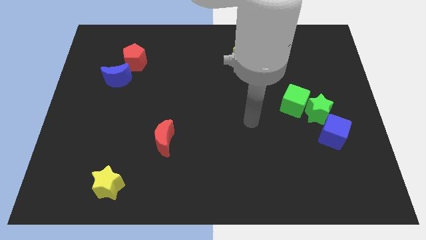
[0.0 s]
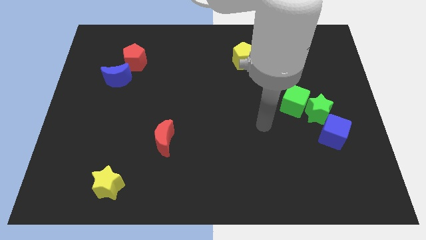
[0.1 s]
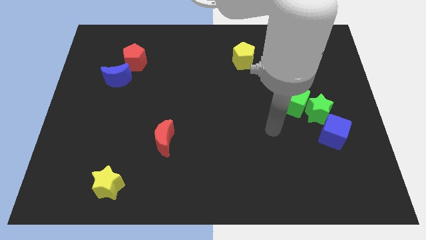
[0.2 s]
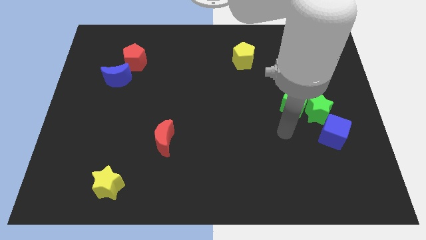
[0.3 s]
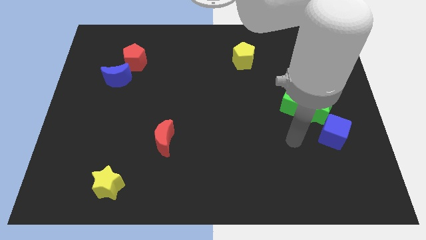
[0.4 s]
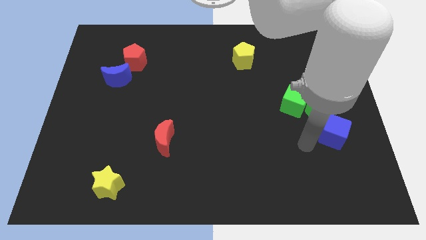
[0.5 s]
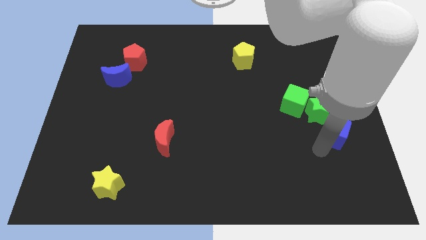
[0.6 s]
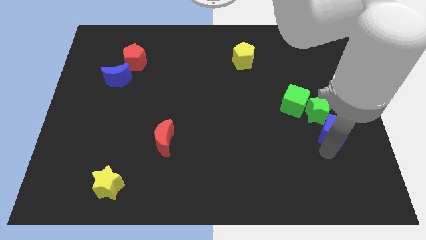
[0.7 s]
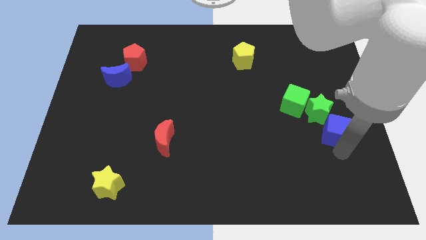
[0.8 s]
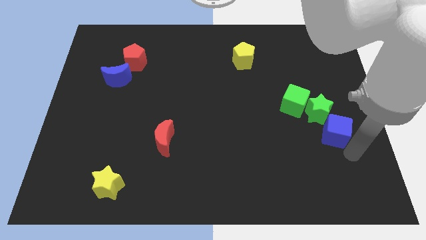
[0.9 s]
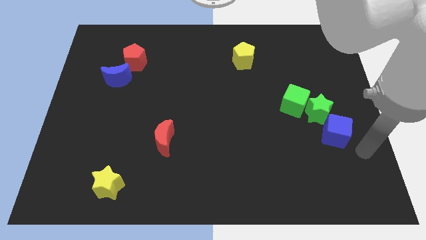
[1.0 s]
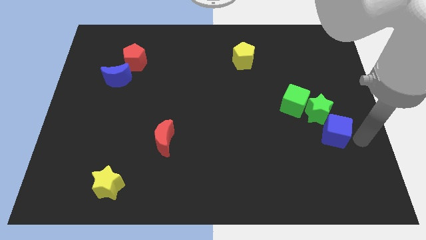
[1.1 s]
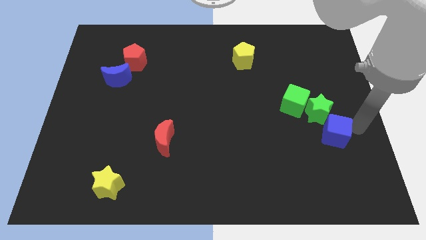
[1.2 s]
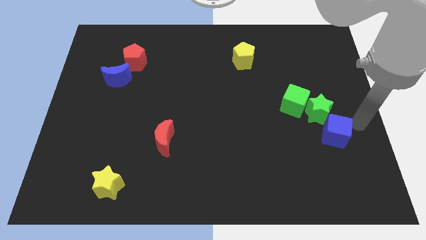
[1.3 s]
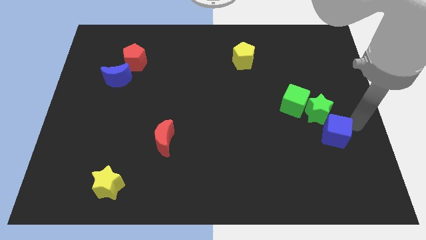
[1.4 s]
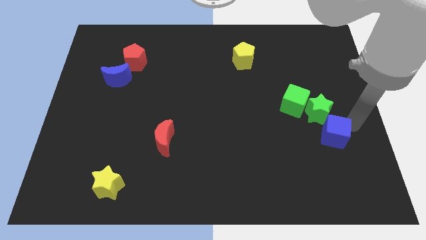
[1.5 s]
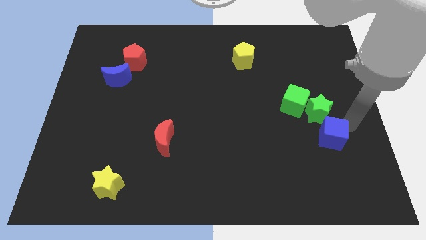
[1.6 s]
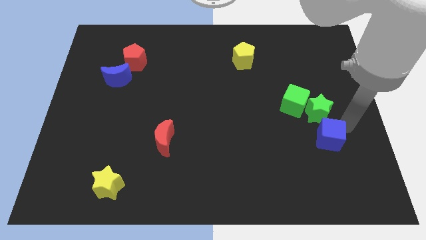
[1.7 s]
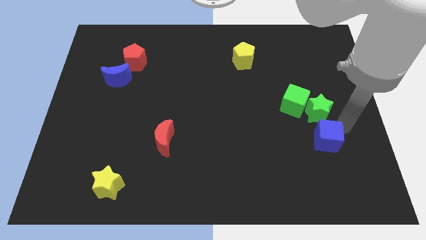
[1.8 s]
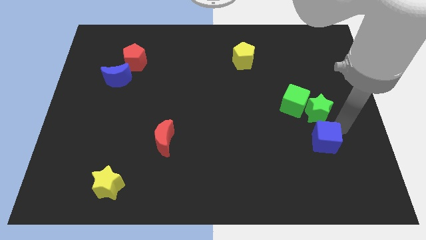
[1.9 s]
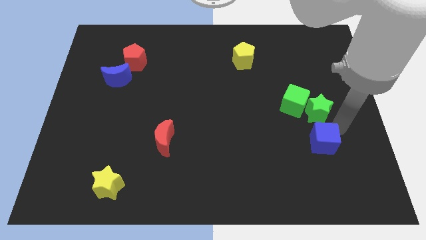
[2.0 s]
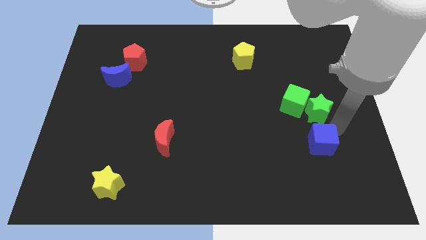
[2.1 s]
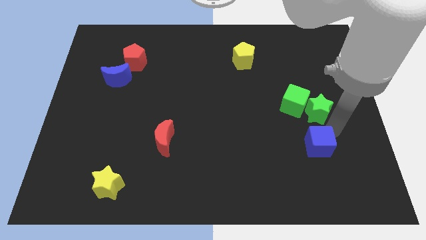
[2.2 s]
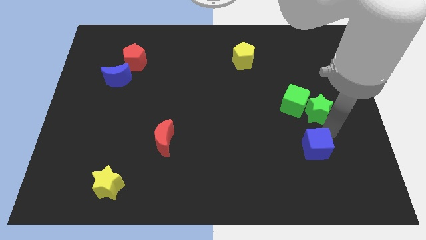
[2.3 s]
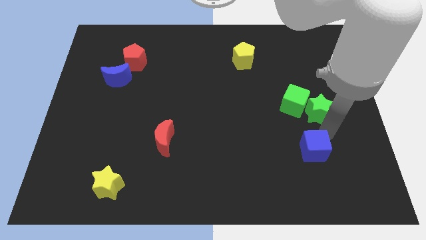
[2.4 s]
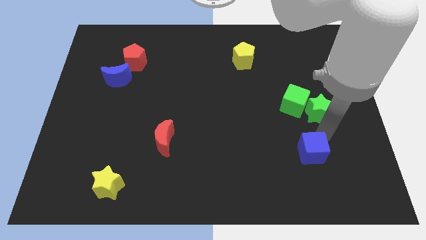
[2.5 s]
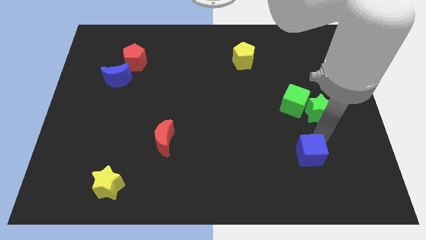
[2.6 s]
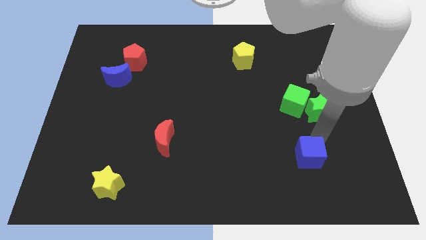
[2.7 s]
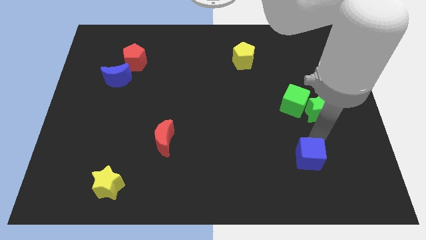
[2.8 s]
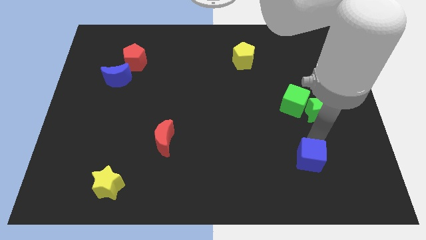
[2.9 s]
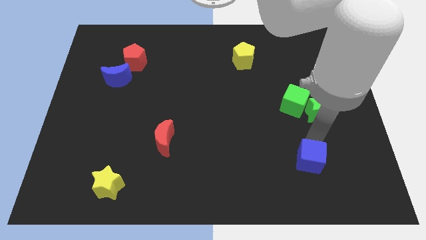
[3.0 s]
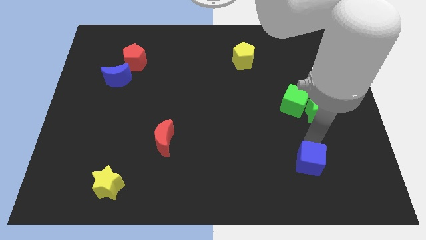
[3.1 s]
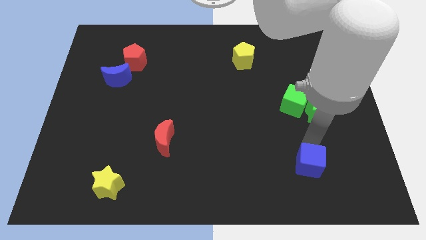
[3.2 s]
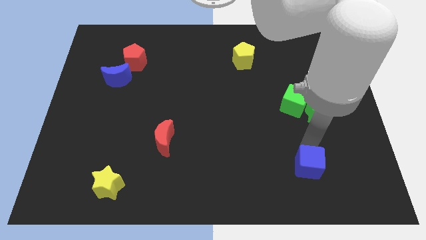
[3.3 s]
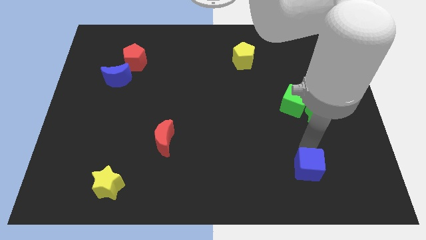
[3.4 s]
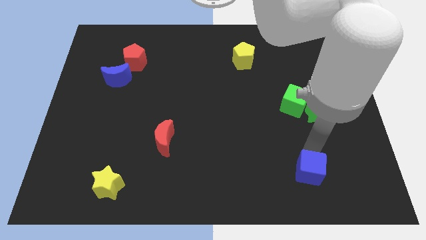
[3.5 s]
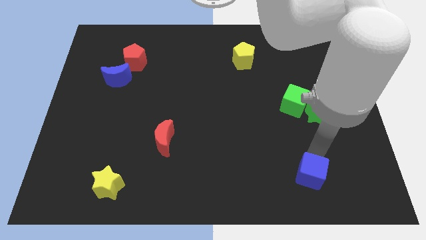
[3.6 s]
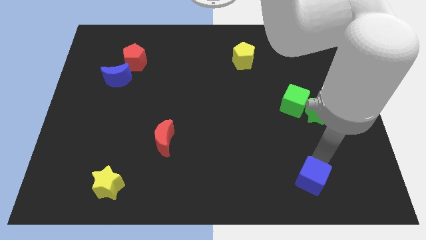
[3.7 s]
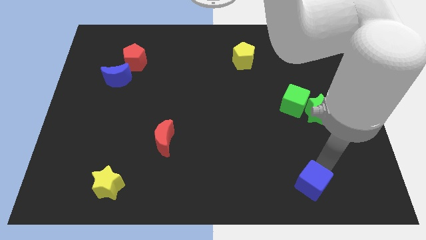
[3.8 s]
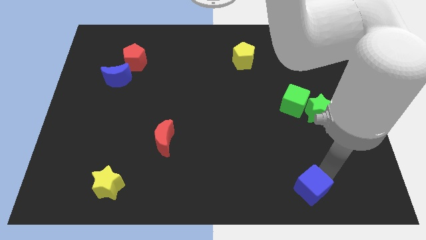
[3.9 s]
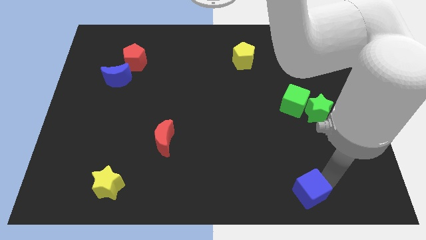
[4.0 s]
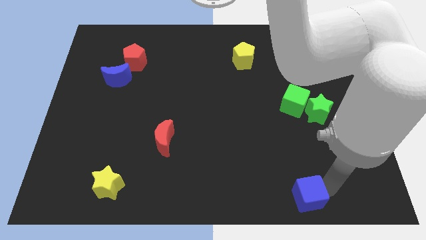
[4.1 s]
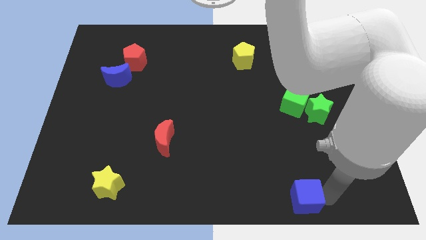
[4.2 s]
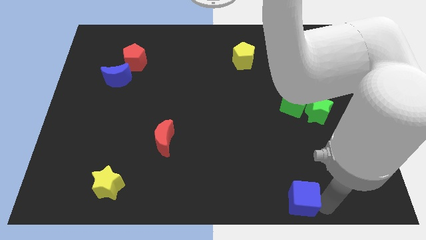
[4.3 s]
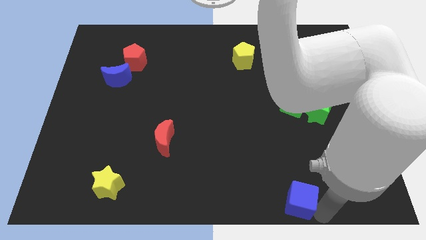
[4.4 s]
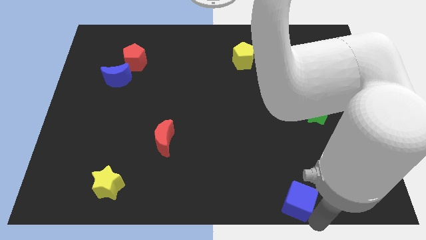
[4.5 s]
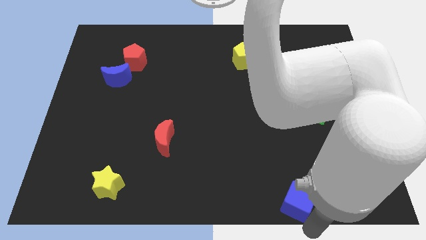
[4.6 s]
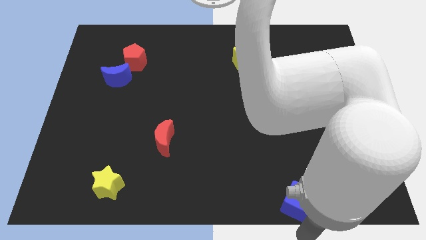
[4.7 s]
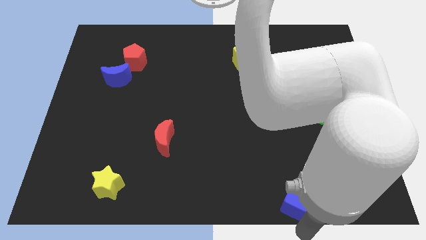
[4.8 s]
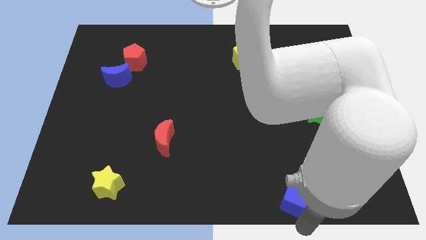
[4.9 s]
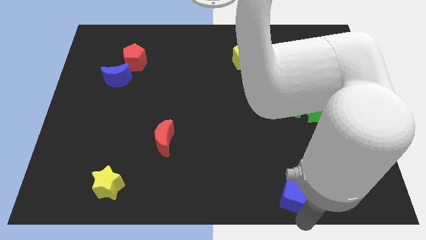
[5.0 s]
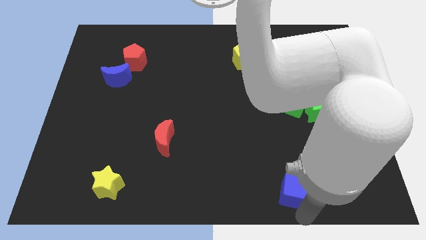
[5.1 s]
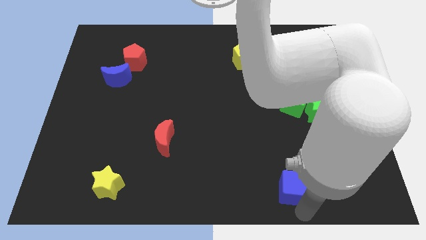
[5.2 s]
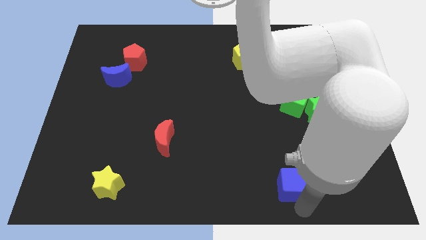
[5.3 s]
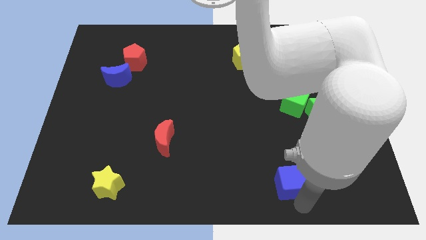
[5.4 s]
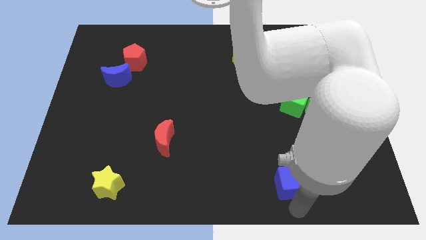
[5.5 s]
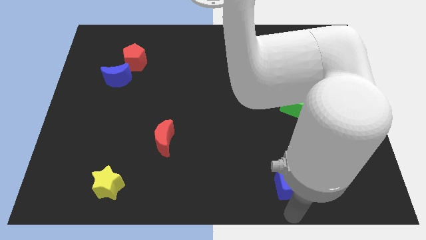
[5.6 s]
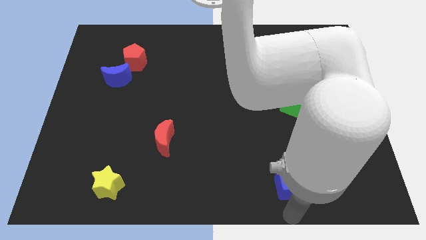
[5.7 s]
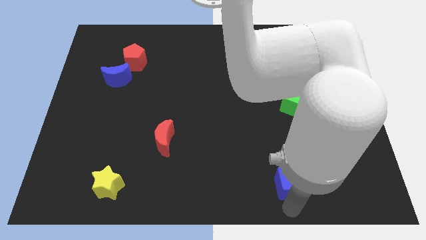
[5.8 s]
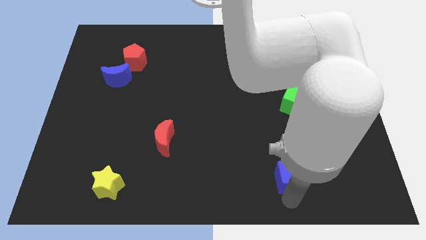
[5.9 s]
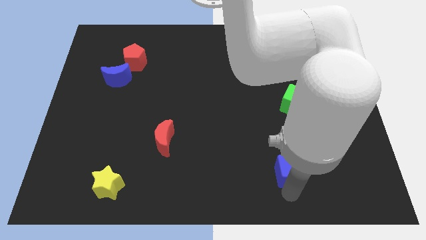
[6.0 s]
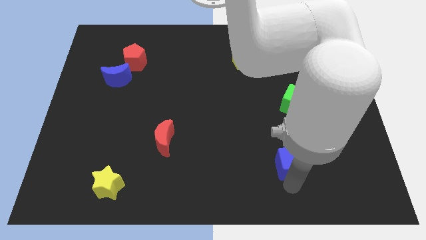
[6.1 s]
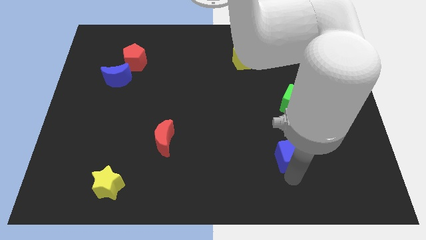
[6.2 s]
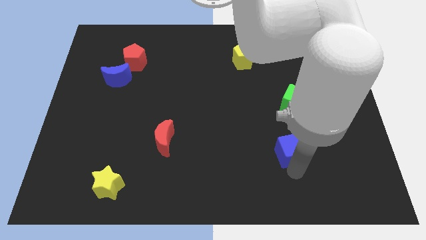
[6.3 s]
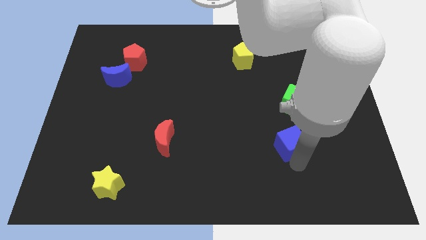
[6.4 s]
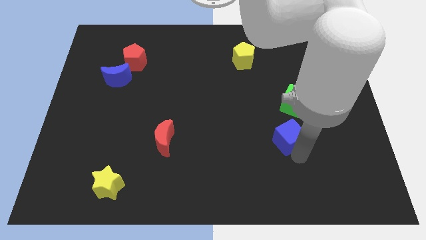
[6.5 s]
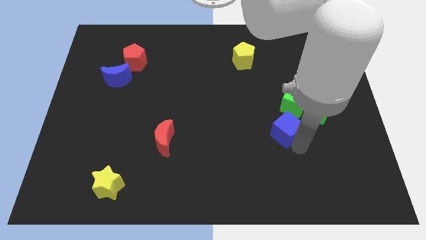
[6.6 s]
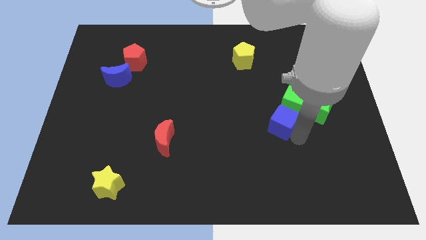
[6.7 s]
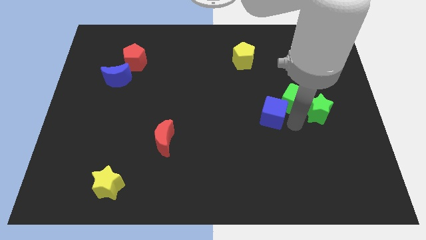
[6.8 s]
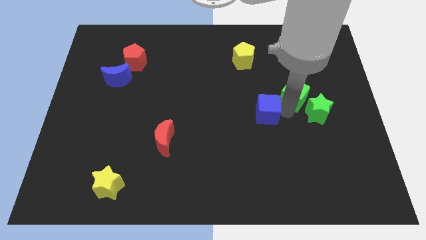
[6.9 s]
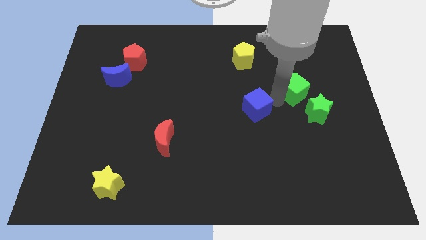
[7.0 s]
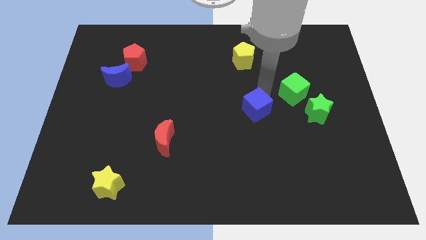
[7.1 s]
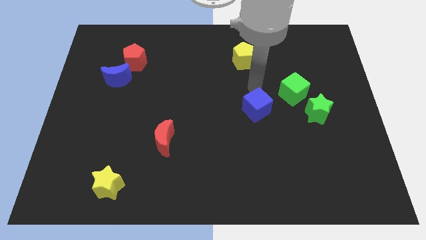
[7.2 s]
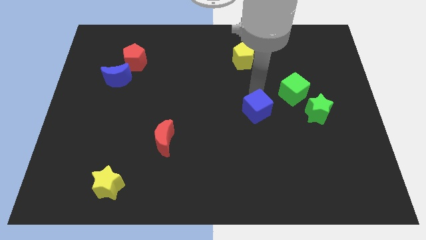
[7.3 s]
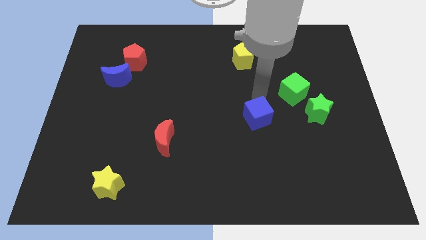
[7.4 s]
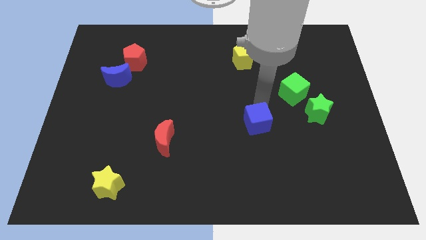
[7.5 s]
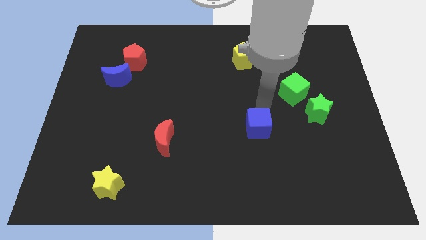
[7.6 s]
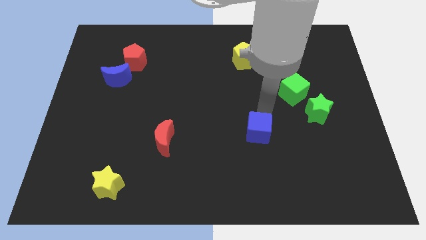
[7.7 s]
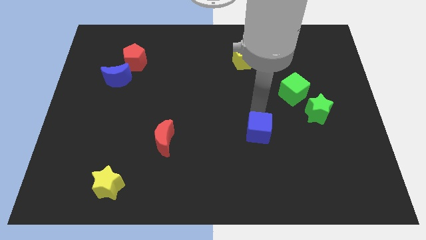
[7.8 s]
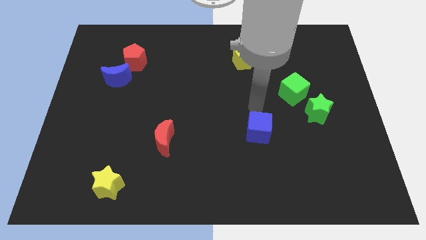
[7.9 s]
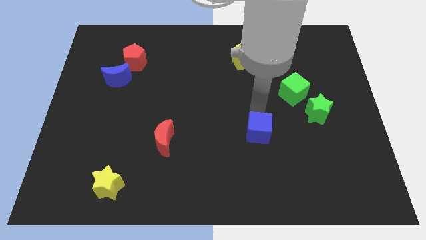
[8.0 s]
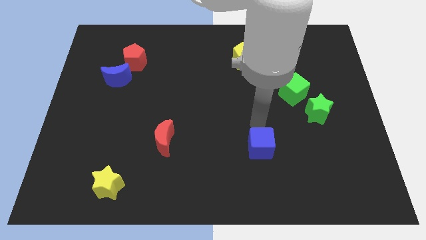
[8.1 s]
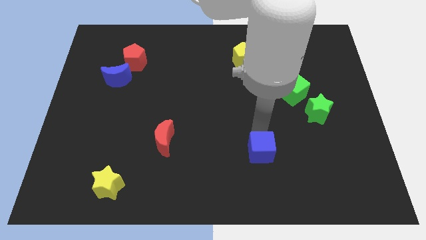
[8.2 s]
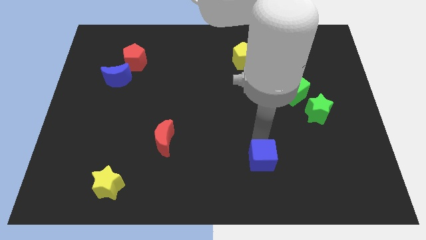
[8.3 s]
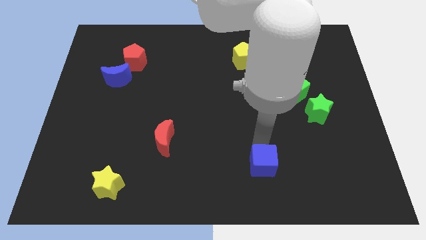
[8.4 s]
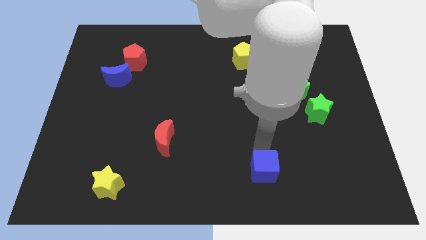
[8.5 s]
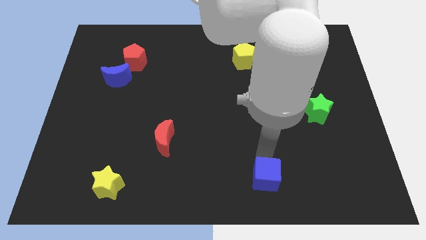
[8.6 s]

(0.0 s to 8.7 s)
move the blue cube to the bottom
